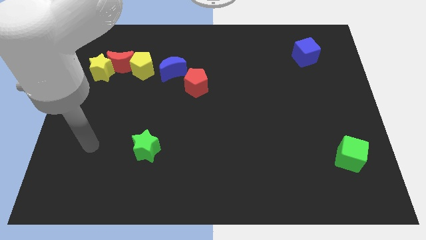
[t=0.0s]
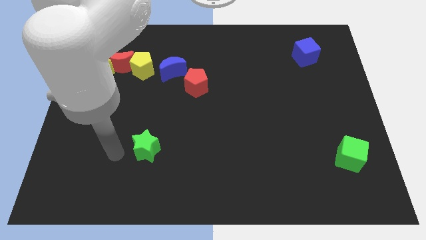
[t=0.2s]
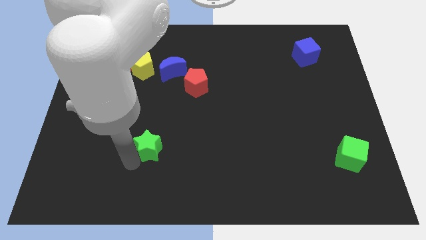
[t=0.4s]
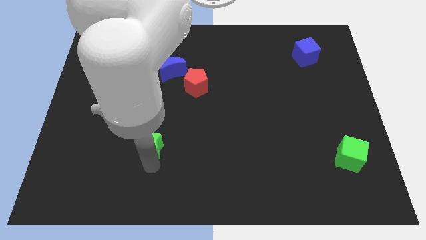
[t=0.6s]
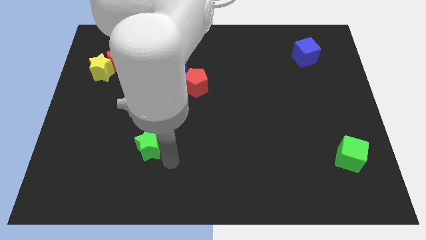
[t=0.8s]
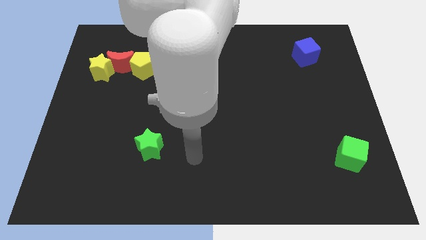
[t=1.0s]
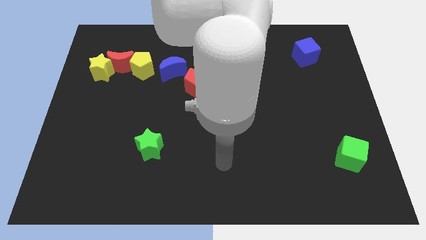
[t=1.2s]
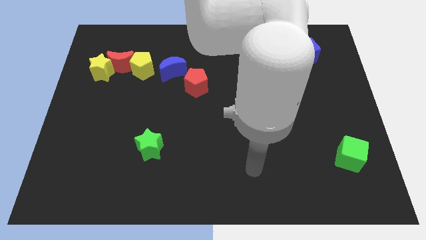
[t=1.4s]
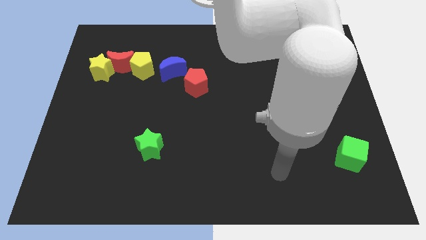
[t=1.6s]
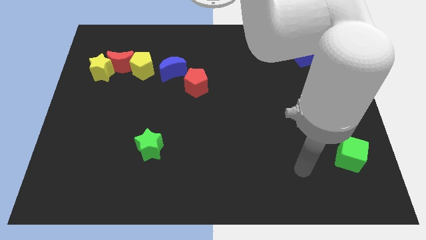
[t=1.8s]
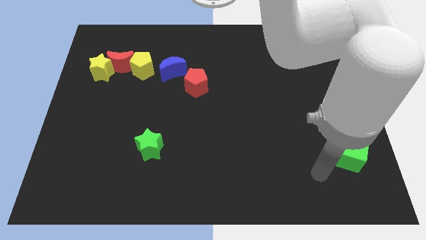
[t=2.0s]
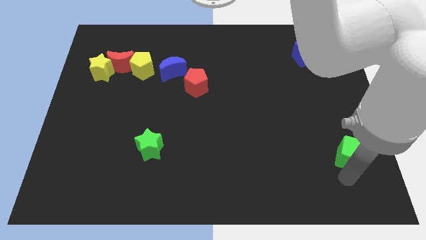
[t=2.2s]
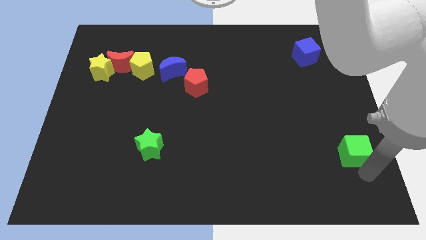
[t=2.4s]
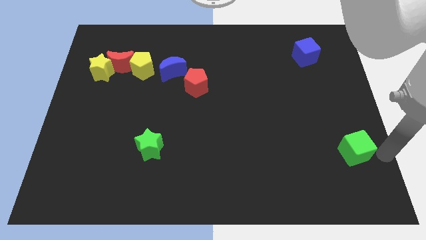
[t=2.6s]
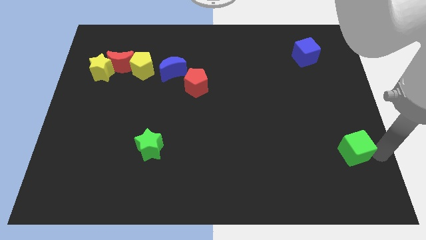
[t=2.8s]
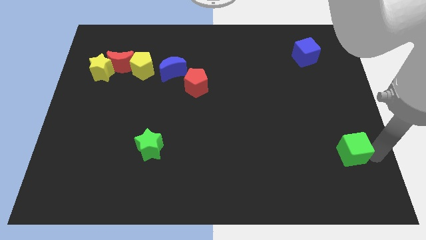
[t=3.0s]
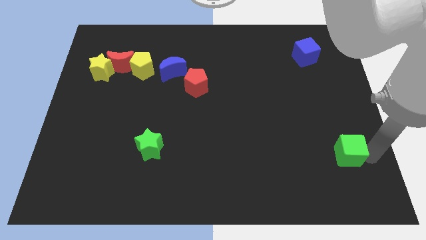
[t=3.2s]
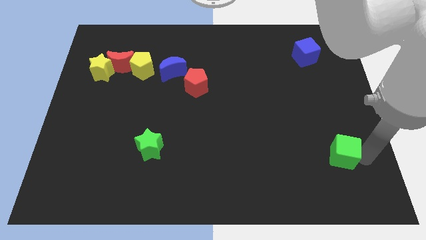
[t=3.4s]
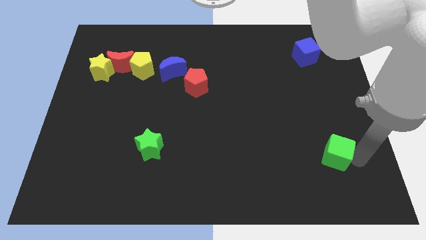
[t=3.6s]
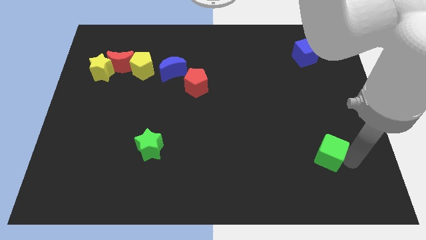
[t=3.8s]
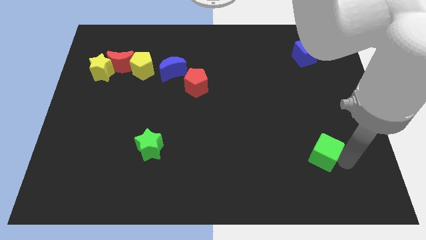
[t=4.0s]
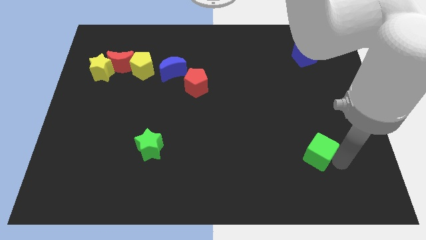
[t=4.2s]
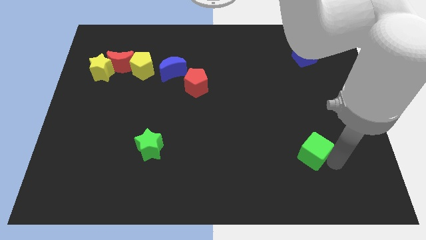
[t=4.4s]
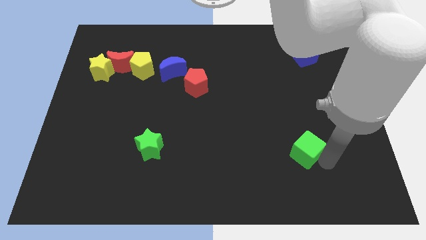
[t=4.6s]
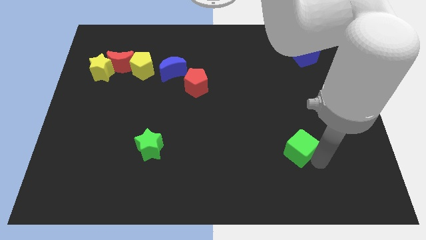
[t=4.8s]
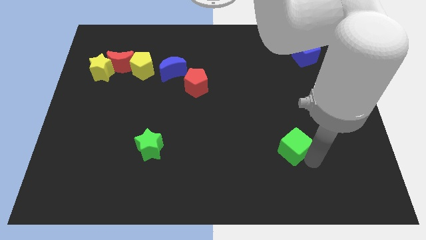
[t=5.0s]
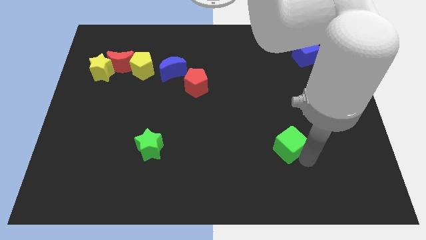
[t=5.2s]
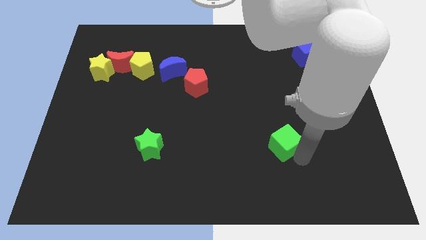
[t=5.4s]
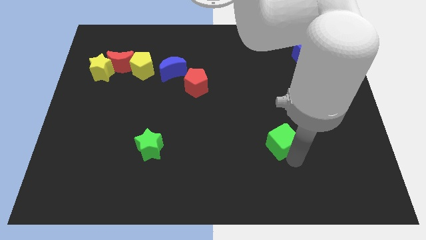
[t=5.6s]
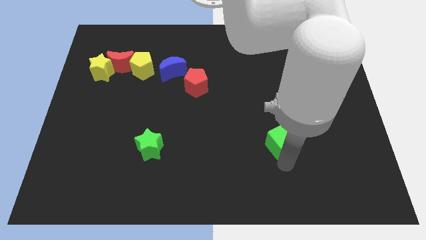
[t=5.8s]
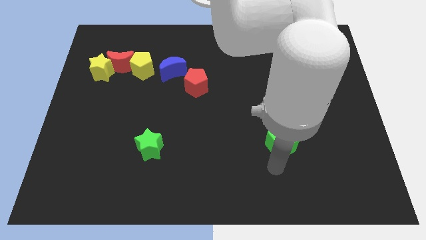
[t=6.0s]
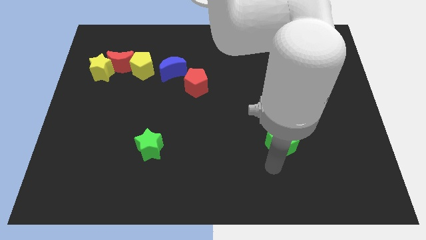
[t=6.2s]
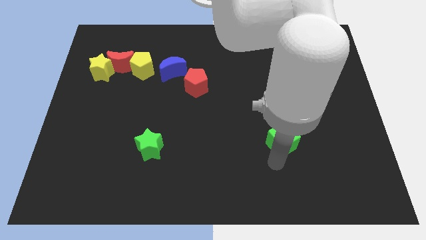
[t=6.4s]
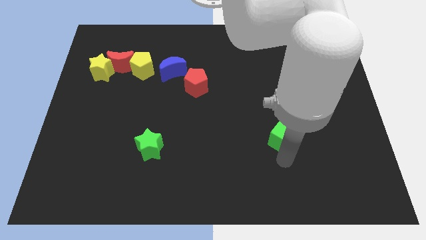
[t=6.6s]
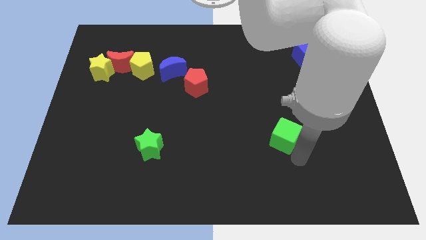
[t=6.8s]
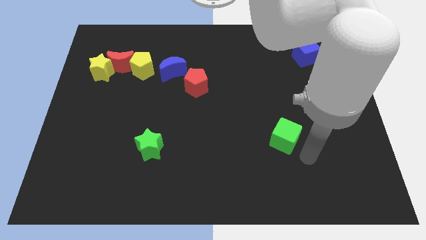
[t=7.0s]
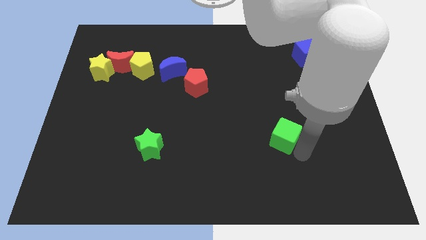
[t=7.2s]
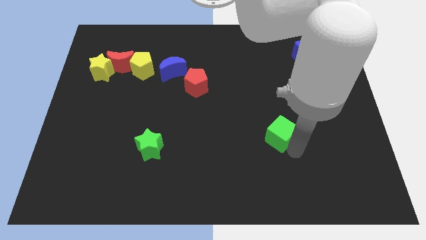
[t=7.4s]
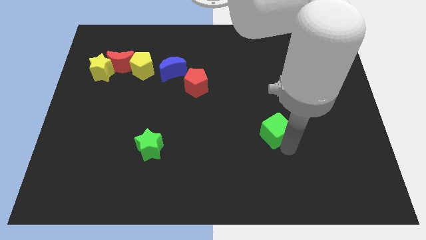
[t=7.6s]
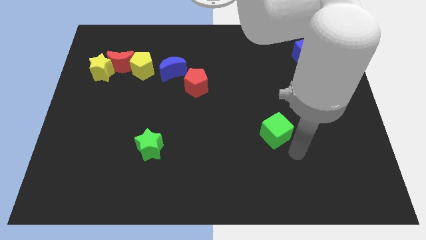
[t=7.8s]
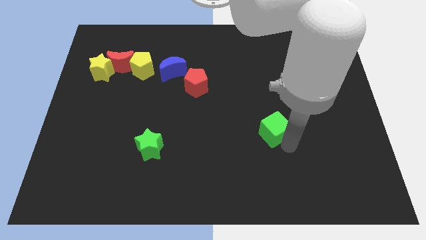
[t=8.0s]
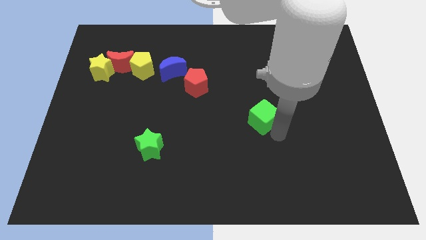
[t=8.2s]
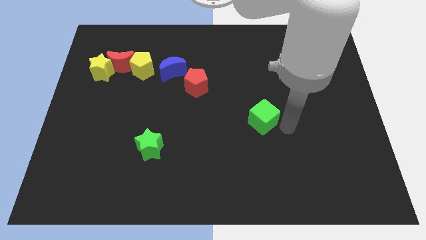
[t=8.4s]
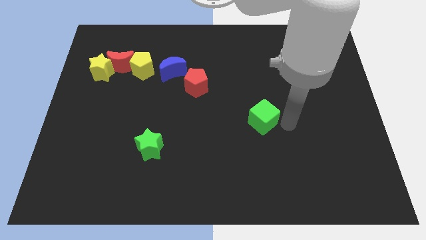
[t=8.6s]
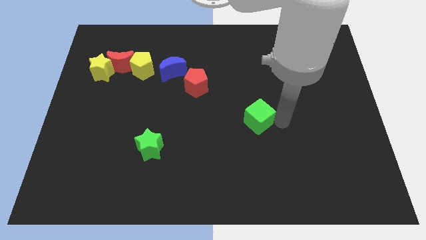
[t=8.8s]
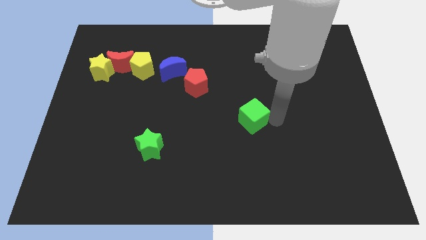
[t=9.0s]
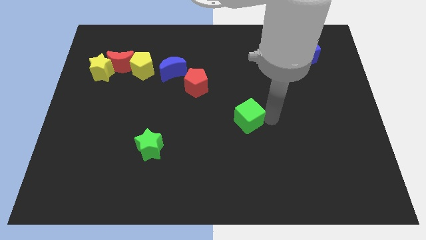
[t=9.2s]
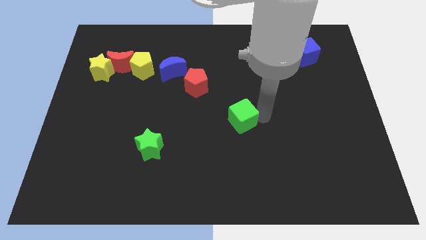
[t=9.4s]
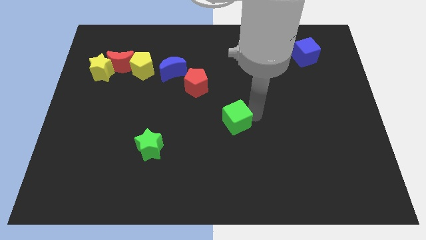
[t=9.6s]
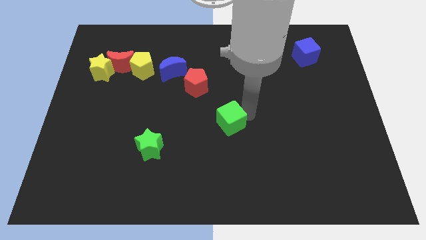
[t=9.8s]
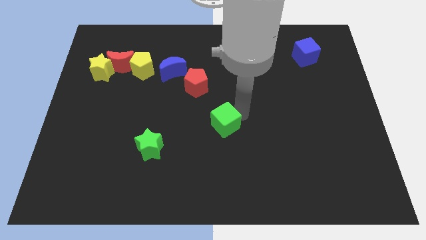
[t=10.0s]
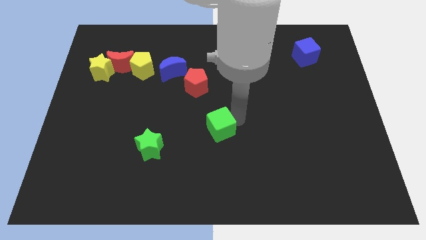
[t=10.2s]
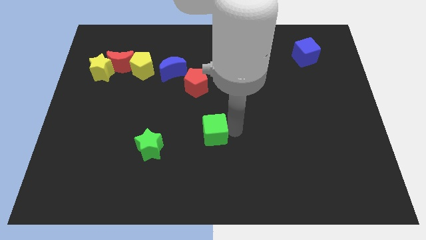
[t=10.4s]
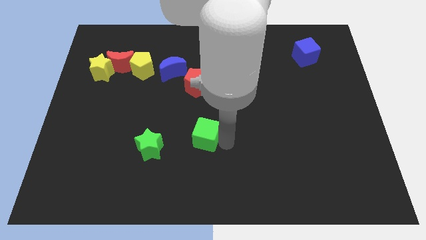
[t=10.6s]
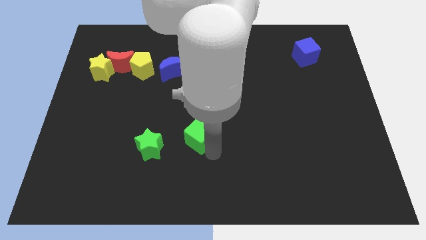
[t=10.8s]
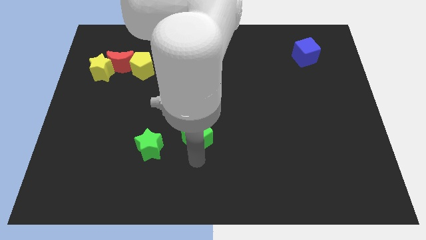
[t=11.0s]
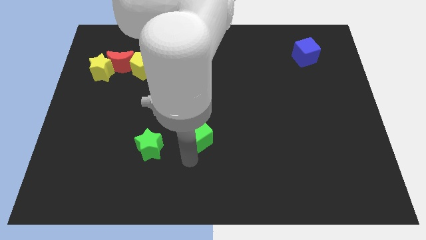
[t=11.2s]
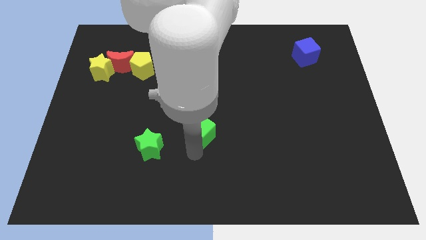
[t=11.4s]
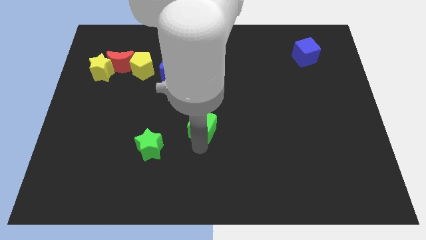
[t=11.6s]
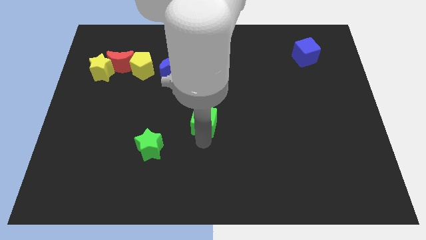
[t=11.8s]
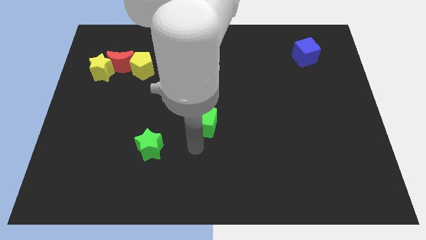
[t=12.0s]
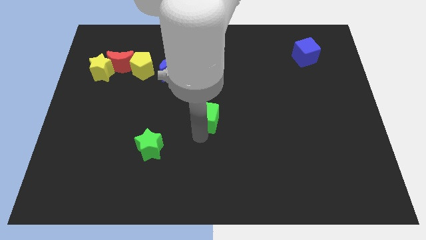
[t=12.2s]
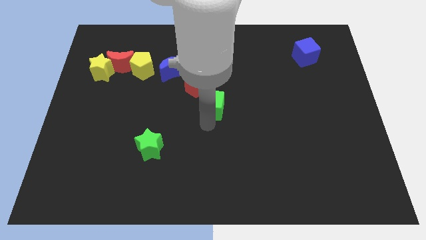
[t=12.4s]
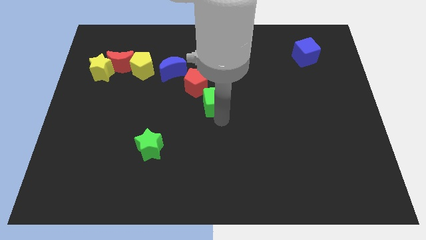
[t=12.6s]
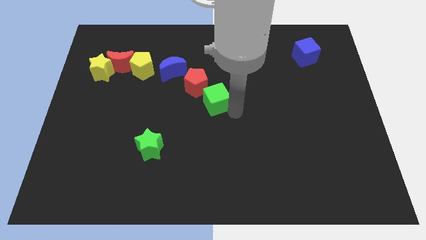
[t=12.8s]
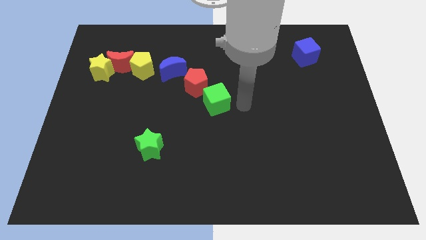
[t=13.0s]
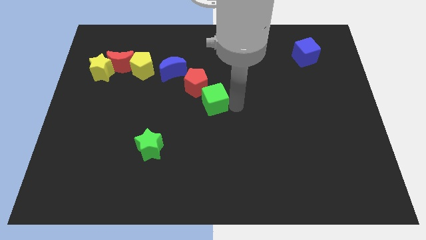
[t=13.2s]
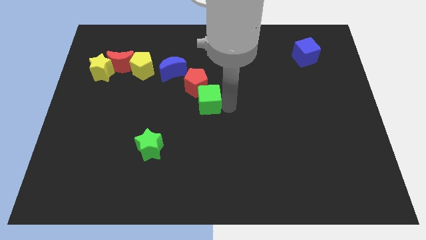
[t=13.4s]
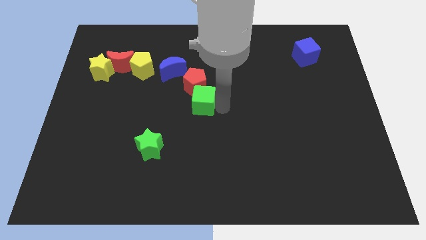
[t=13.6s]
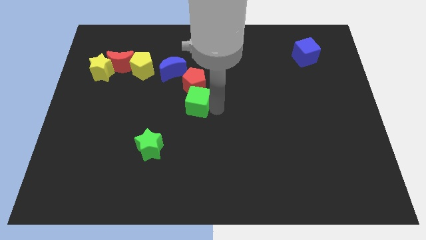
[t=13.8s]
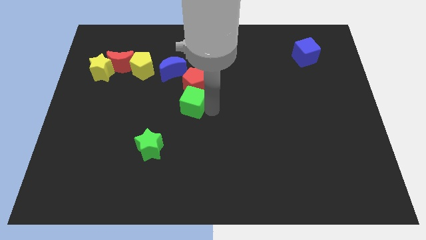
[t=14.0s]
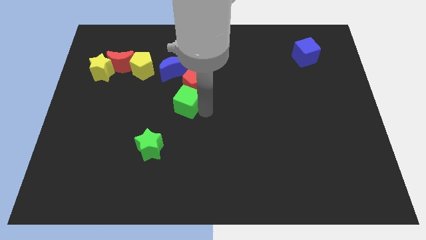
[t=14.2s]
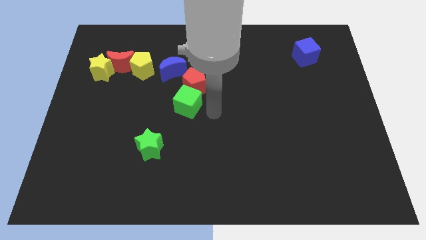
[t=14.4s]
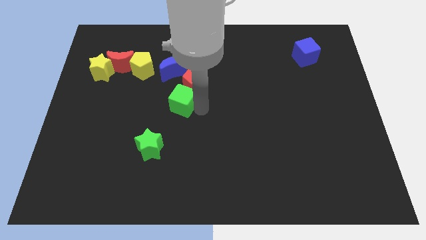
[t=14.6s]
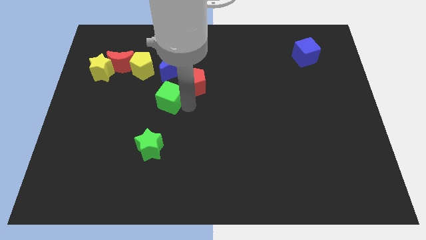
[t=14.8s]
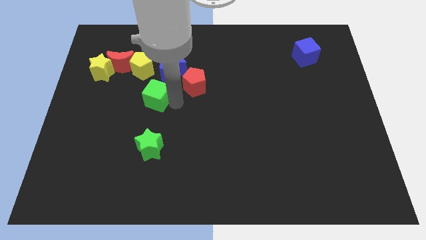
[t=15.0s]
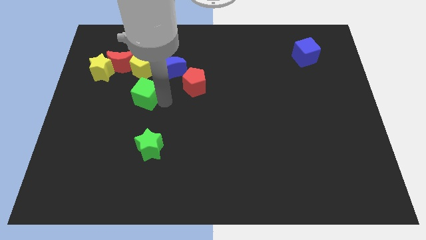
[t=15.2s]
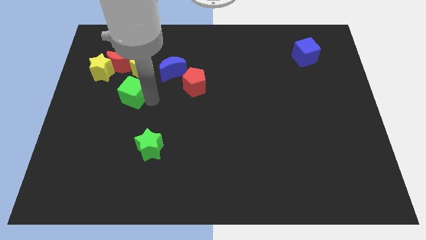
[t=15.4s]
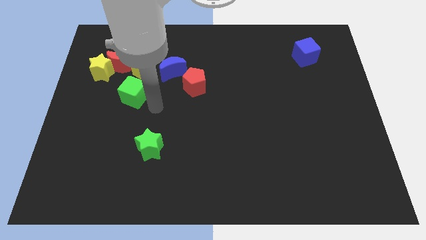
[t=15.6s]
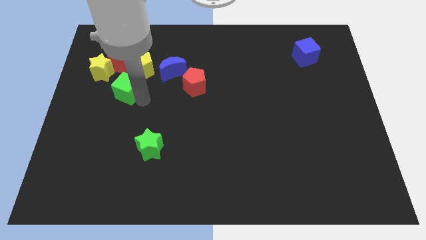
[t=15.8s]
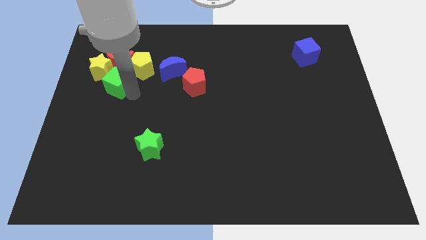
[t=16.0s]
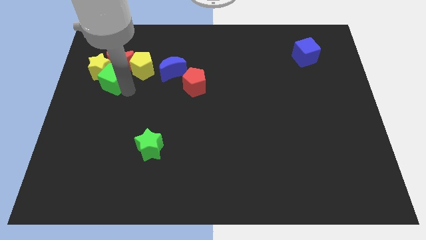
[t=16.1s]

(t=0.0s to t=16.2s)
push the green cube to the bottom left of the red moon
